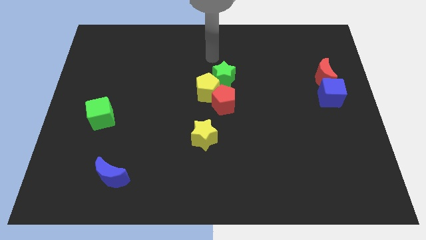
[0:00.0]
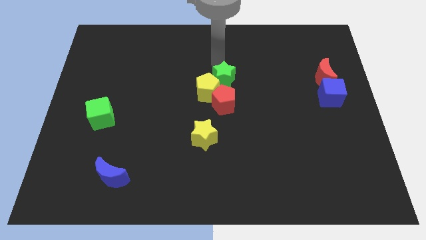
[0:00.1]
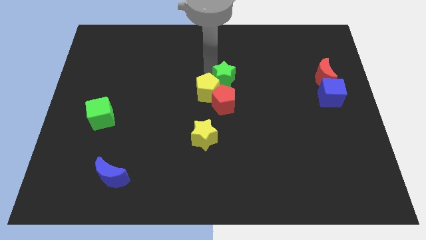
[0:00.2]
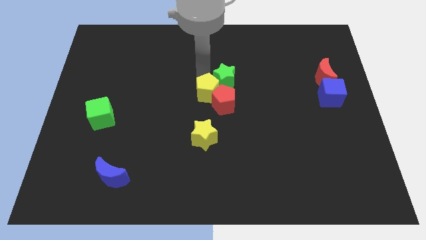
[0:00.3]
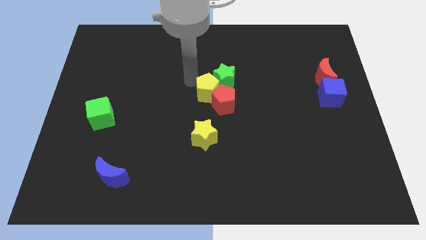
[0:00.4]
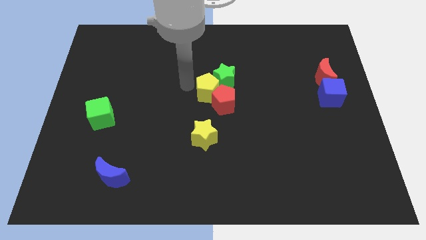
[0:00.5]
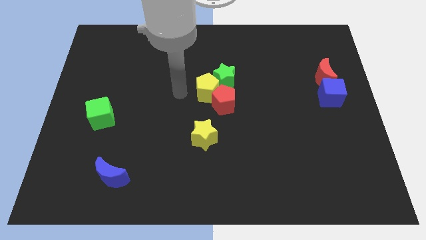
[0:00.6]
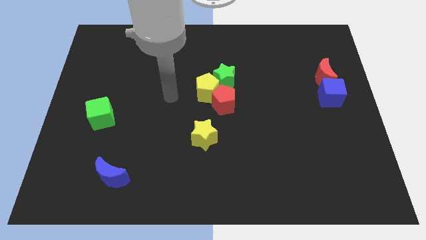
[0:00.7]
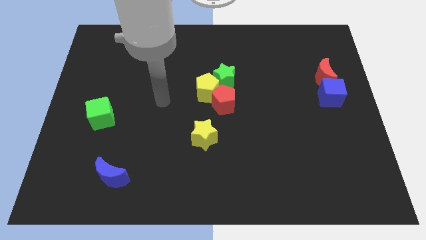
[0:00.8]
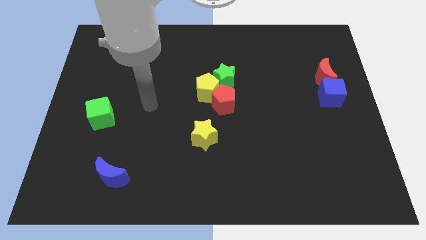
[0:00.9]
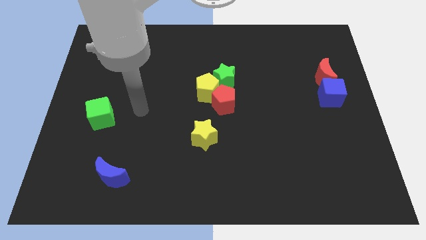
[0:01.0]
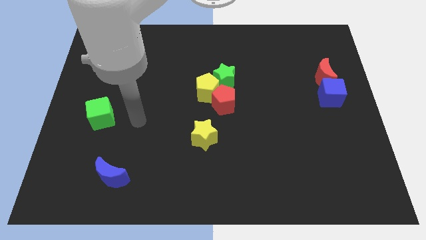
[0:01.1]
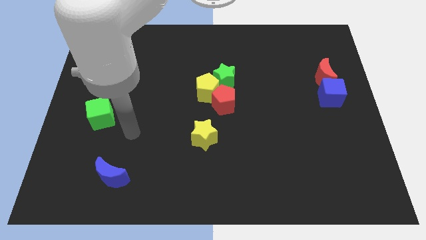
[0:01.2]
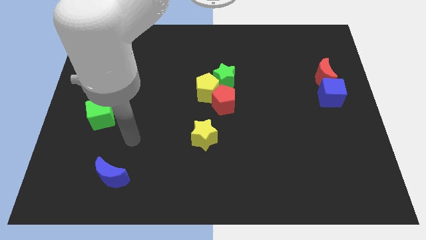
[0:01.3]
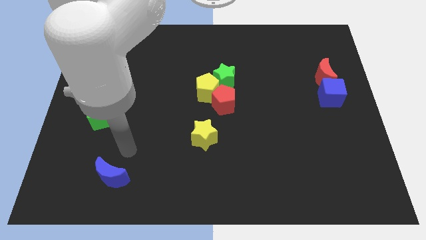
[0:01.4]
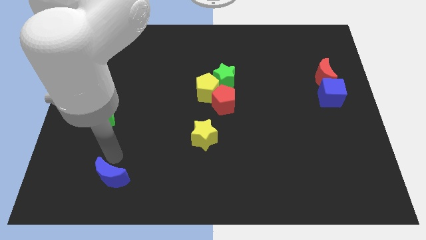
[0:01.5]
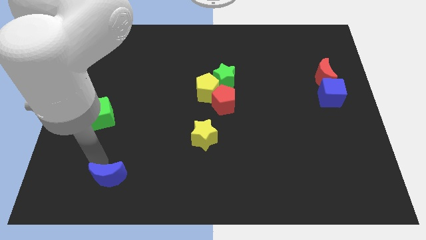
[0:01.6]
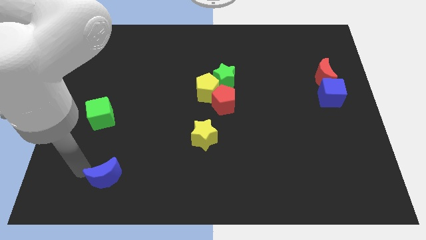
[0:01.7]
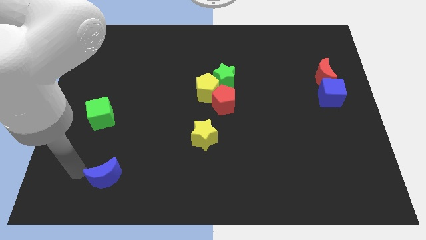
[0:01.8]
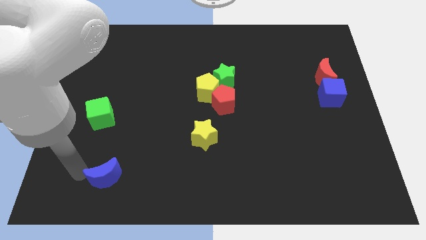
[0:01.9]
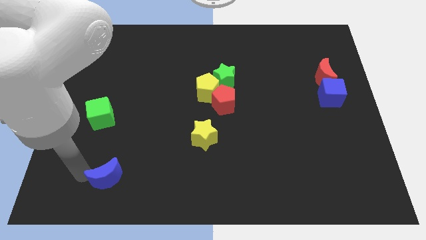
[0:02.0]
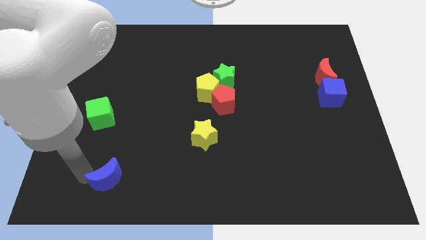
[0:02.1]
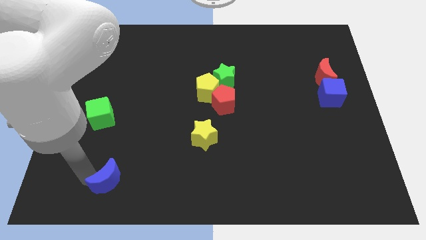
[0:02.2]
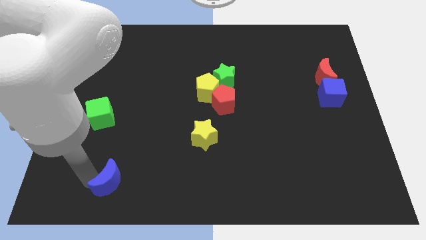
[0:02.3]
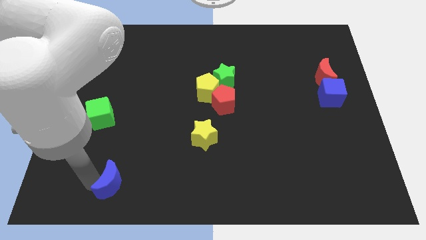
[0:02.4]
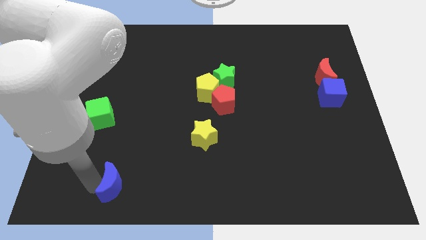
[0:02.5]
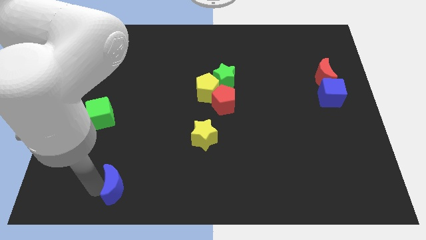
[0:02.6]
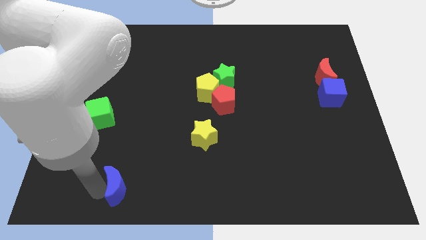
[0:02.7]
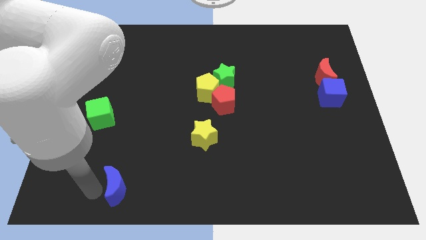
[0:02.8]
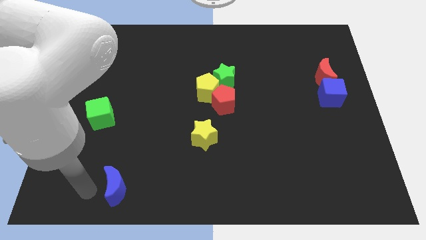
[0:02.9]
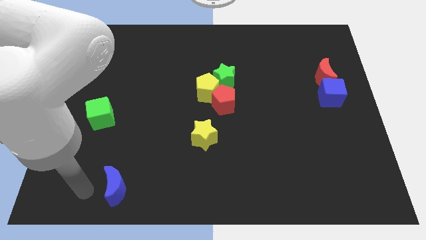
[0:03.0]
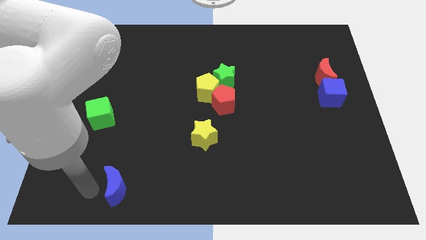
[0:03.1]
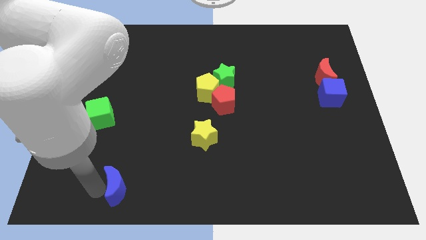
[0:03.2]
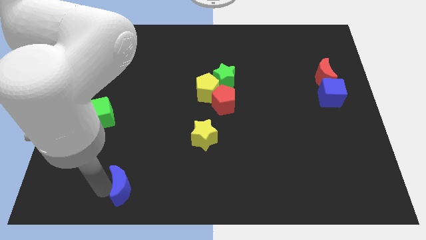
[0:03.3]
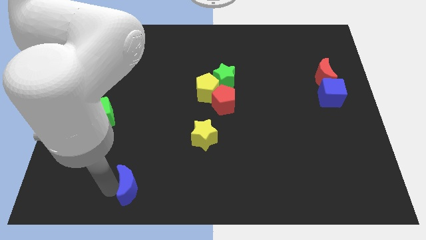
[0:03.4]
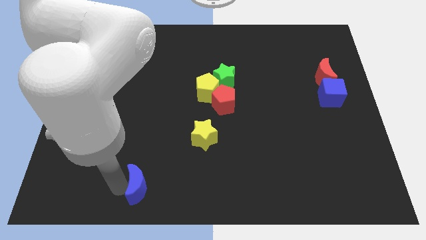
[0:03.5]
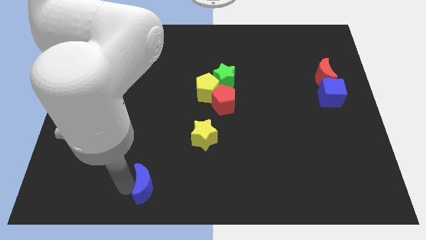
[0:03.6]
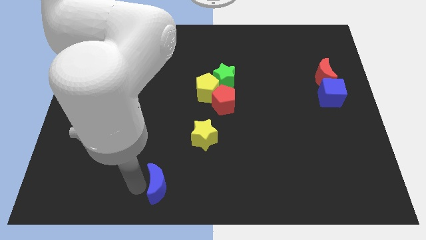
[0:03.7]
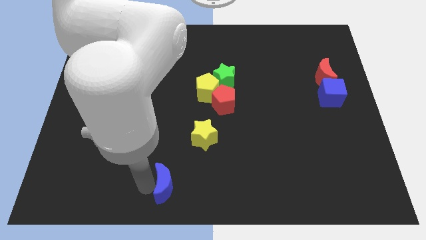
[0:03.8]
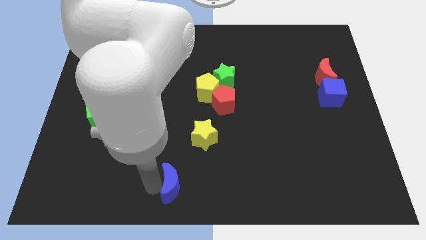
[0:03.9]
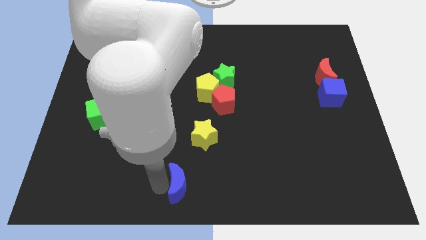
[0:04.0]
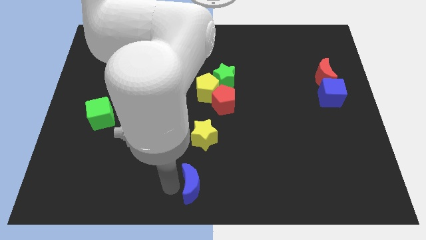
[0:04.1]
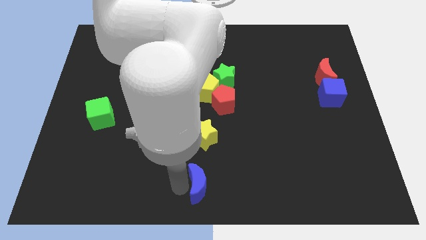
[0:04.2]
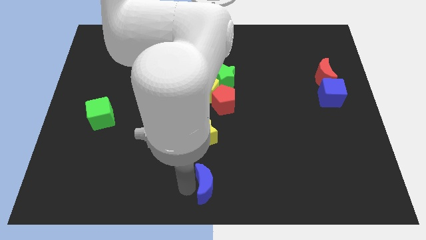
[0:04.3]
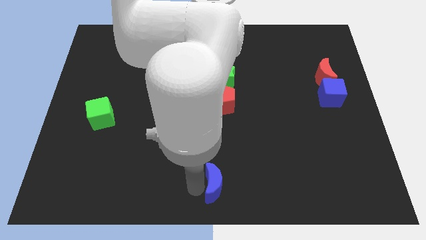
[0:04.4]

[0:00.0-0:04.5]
slide the blue moon right

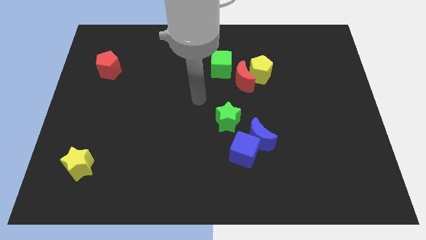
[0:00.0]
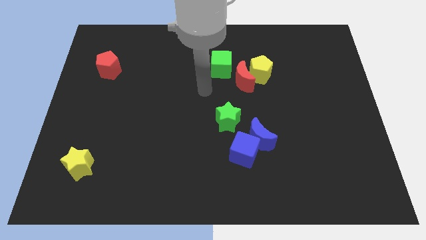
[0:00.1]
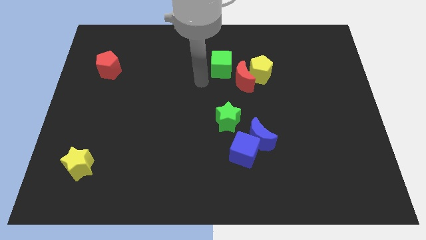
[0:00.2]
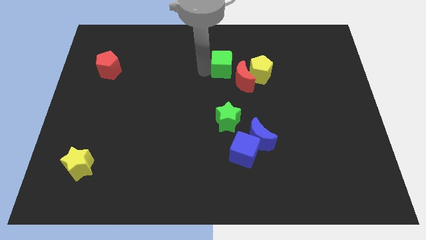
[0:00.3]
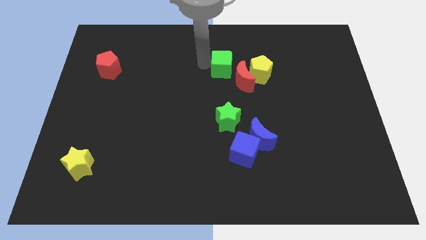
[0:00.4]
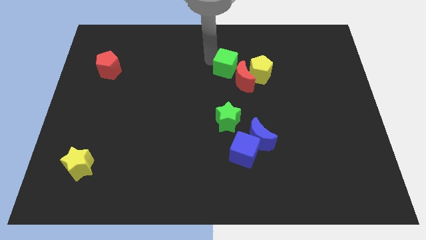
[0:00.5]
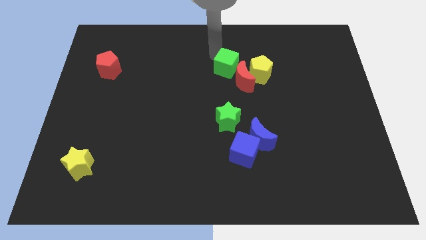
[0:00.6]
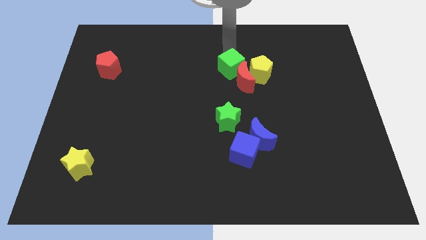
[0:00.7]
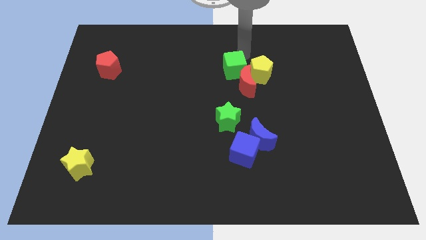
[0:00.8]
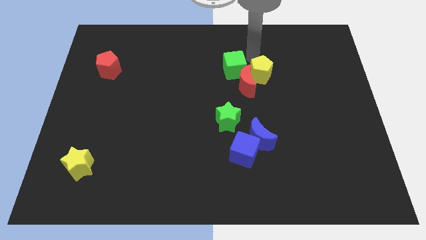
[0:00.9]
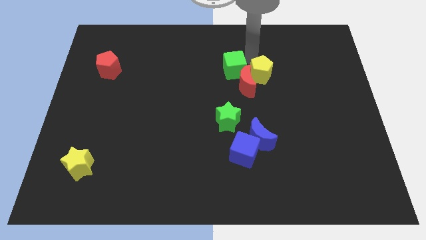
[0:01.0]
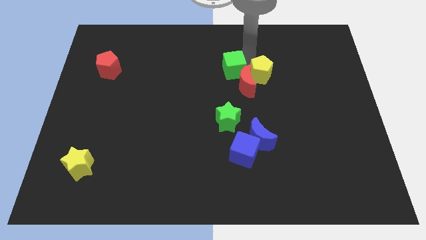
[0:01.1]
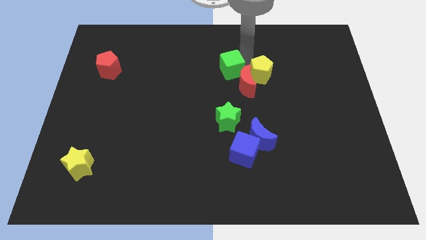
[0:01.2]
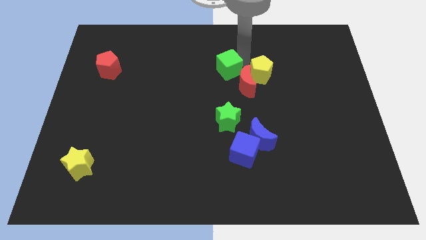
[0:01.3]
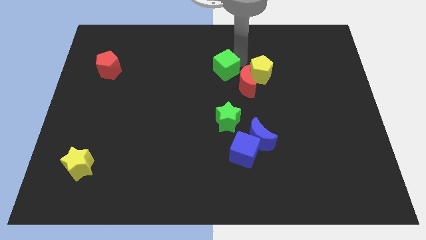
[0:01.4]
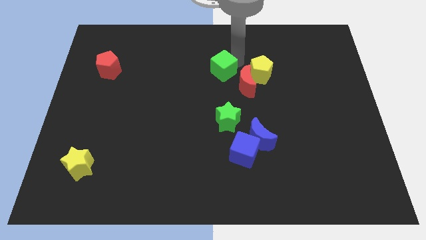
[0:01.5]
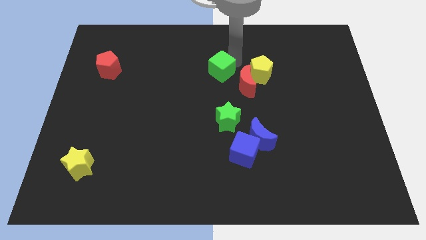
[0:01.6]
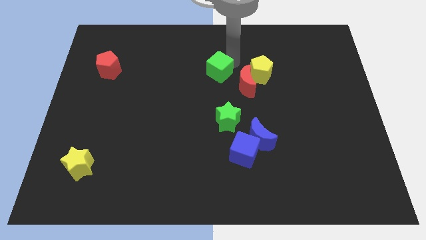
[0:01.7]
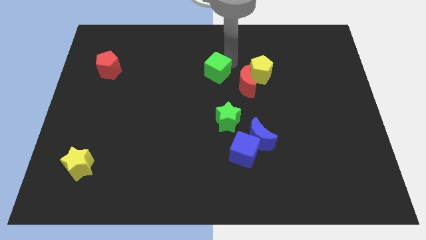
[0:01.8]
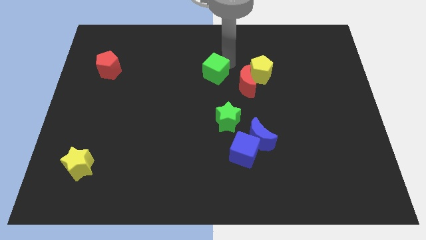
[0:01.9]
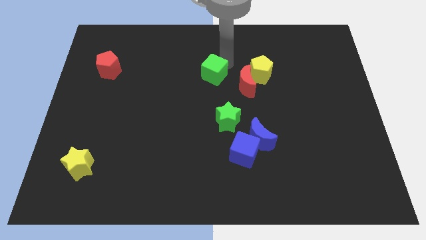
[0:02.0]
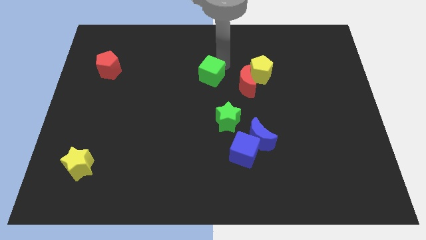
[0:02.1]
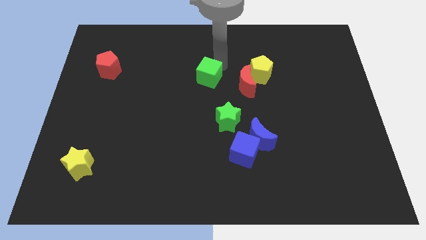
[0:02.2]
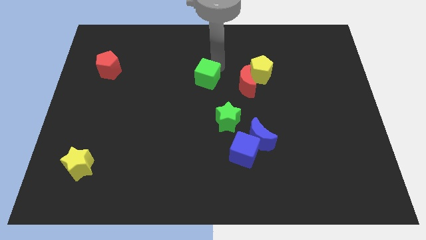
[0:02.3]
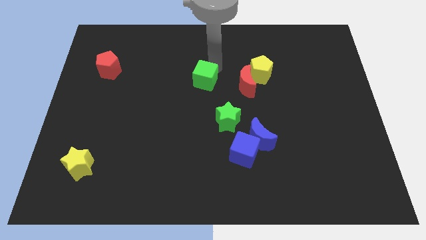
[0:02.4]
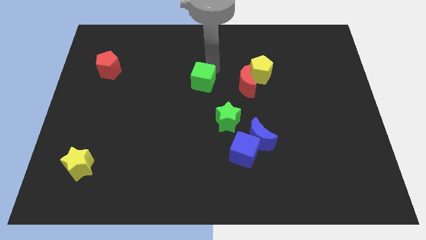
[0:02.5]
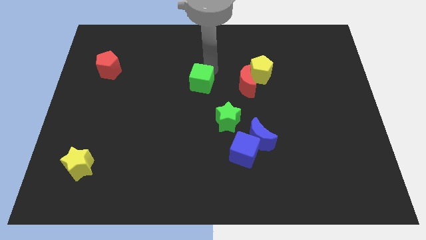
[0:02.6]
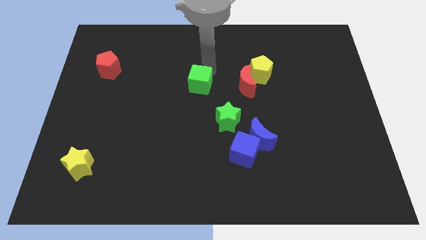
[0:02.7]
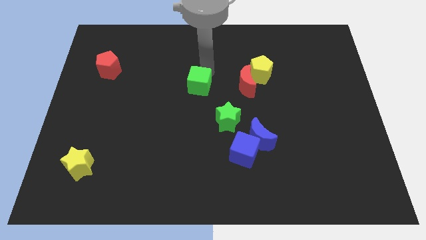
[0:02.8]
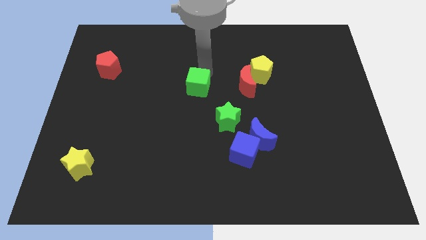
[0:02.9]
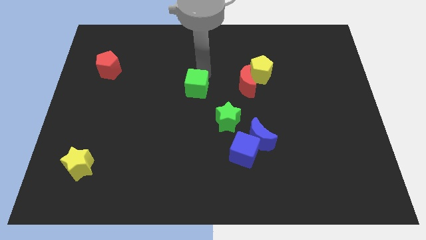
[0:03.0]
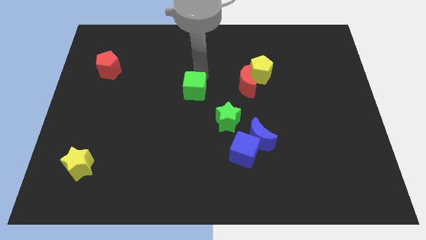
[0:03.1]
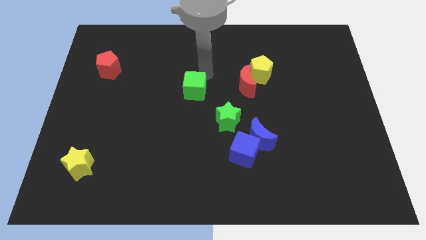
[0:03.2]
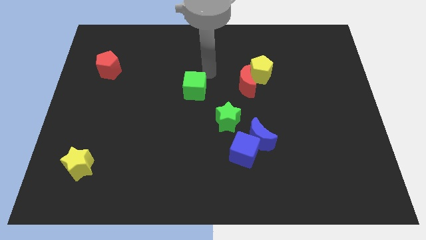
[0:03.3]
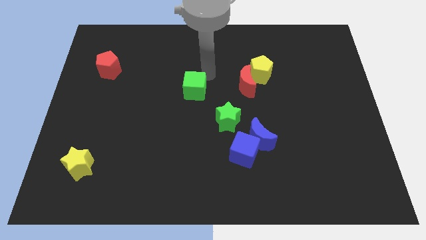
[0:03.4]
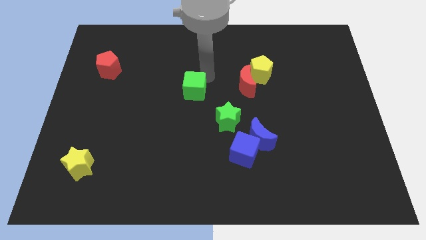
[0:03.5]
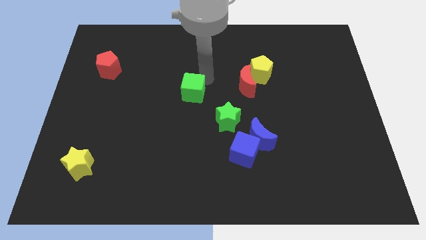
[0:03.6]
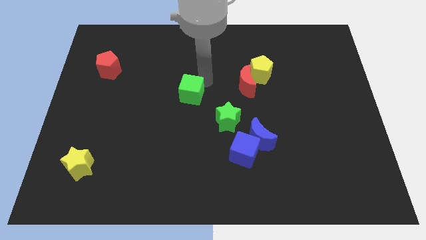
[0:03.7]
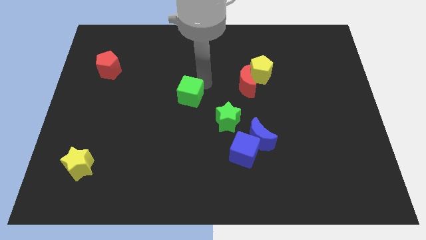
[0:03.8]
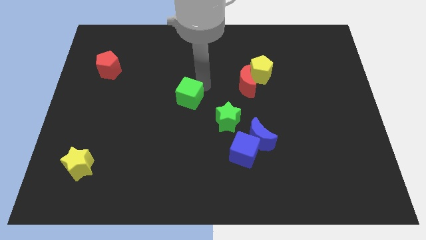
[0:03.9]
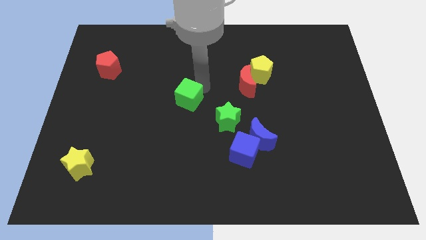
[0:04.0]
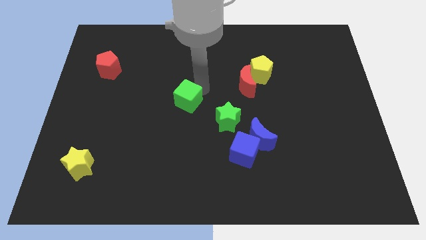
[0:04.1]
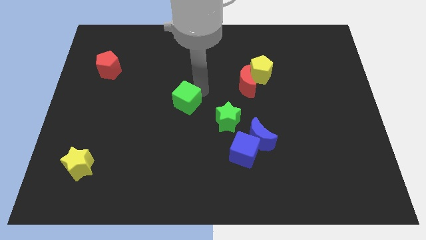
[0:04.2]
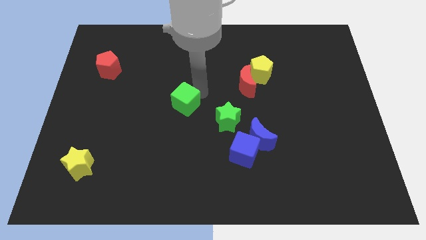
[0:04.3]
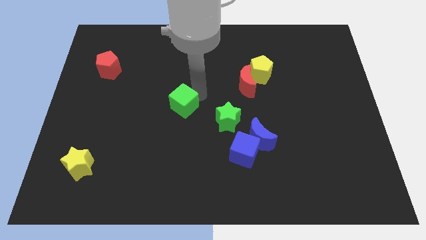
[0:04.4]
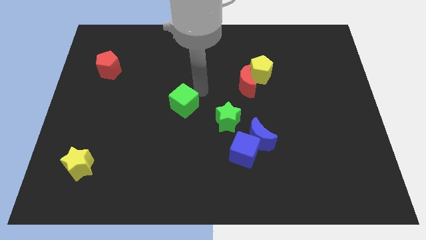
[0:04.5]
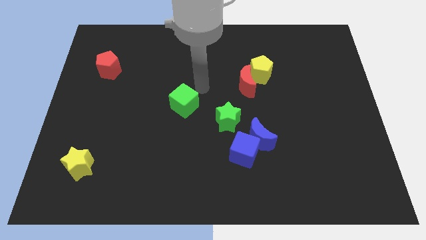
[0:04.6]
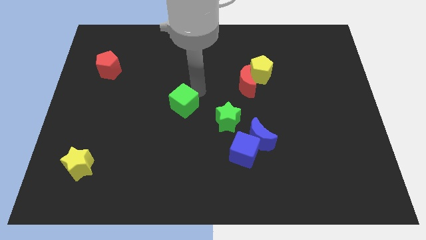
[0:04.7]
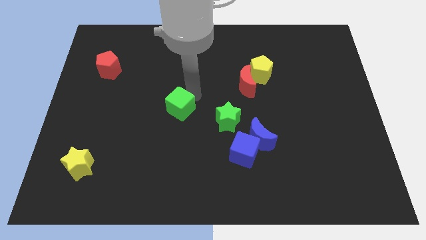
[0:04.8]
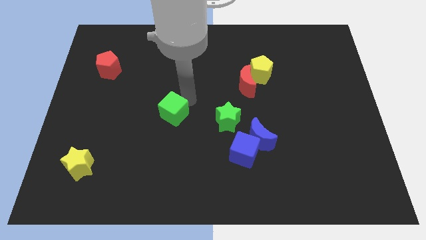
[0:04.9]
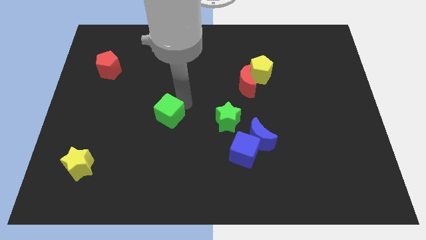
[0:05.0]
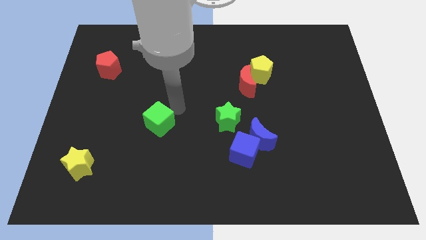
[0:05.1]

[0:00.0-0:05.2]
push the green cube diagonally down and to the left
